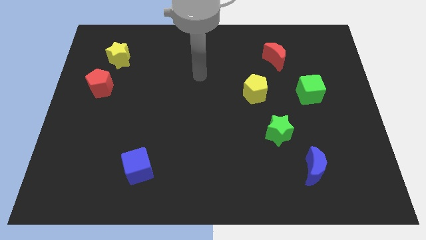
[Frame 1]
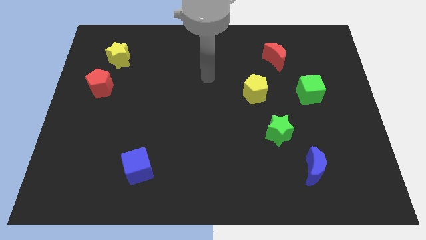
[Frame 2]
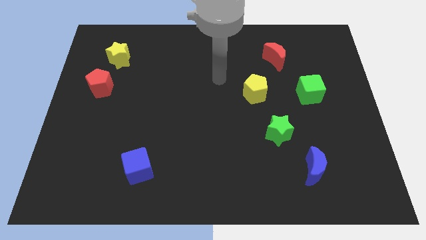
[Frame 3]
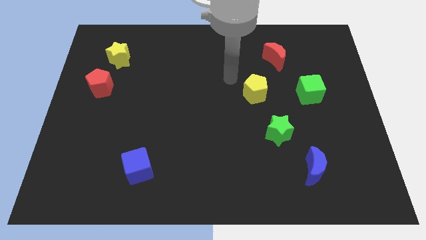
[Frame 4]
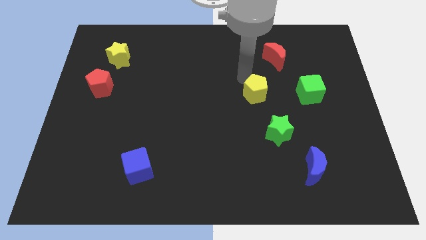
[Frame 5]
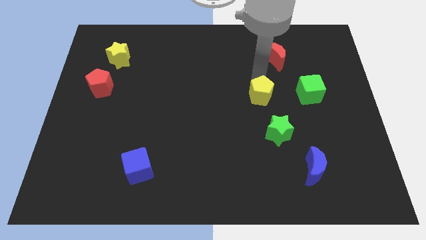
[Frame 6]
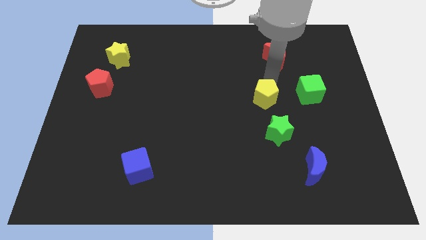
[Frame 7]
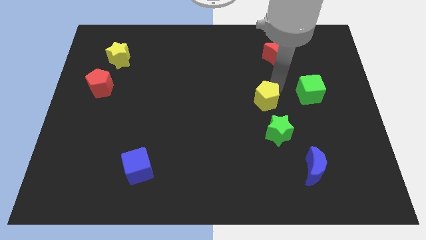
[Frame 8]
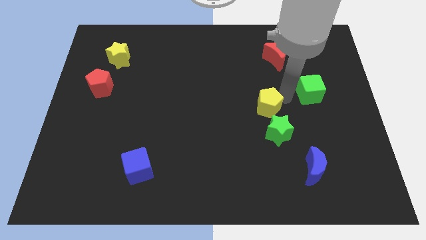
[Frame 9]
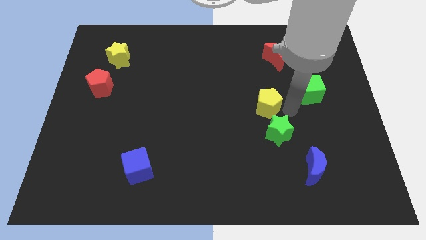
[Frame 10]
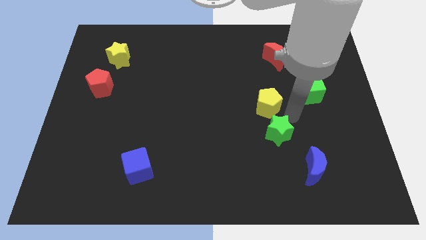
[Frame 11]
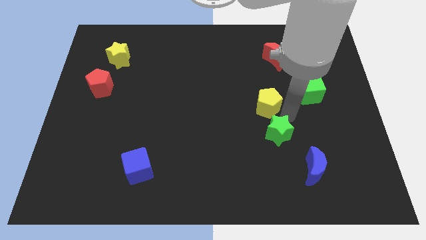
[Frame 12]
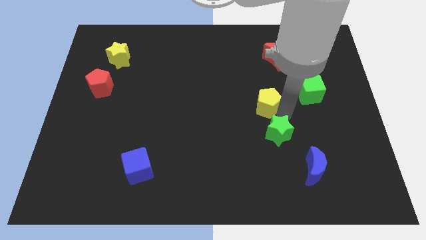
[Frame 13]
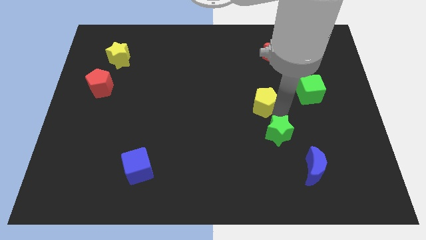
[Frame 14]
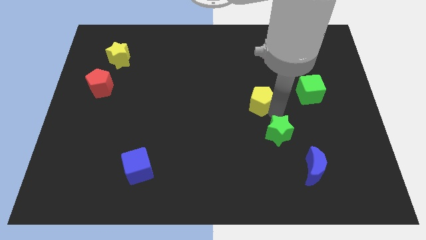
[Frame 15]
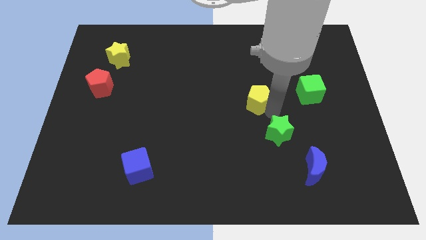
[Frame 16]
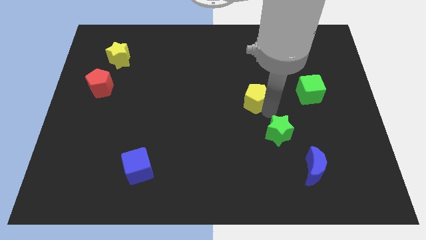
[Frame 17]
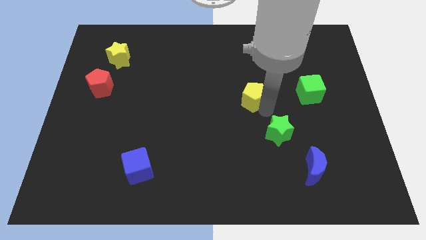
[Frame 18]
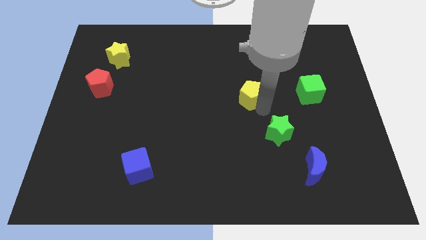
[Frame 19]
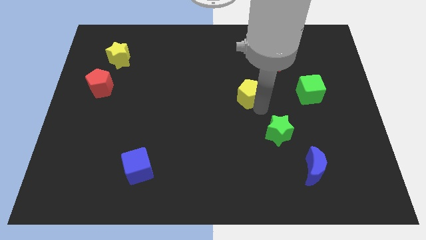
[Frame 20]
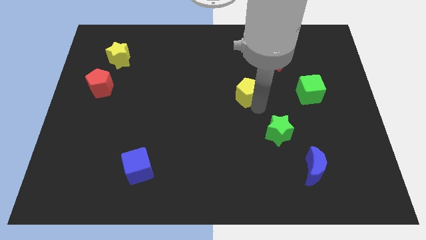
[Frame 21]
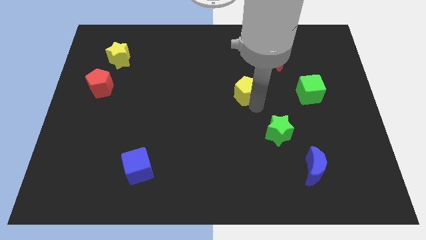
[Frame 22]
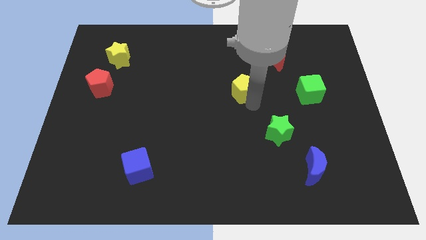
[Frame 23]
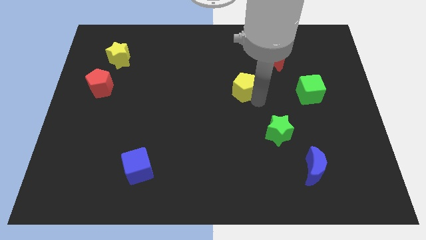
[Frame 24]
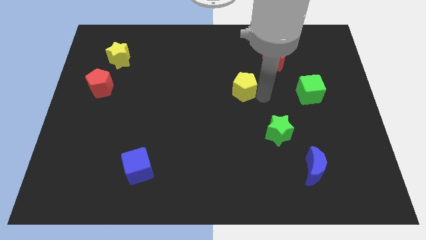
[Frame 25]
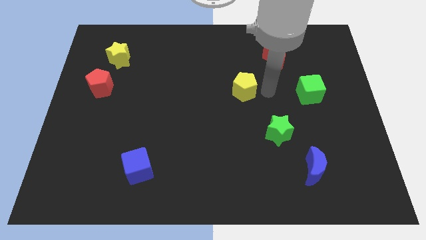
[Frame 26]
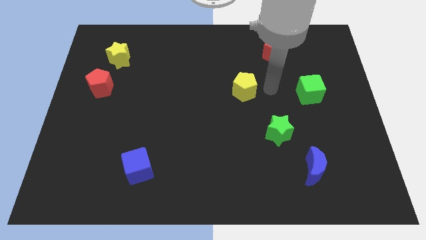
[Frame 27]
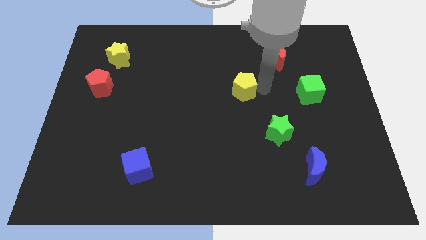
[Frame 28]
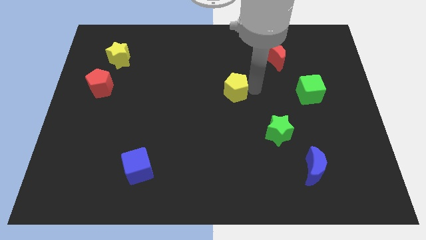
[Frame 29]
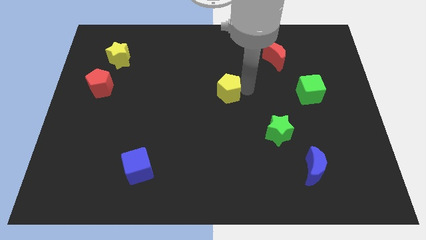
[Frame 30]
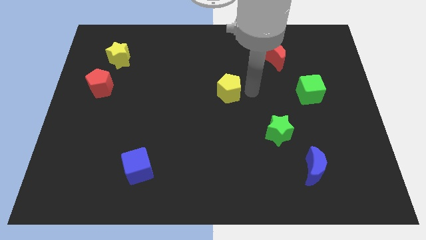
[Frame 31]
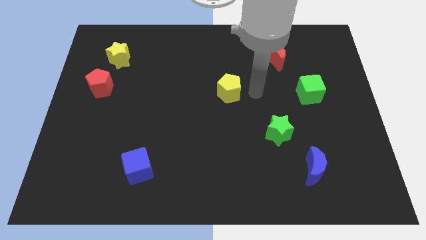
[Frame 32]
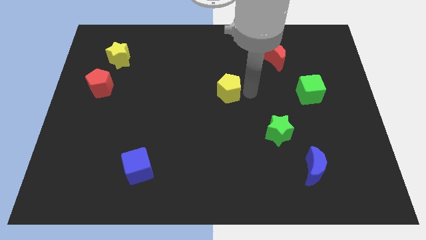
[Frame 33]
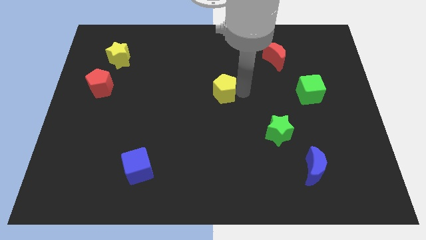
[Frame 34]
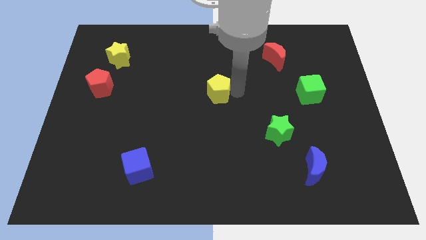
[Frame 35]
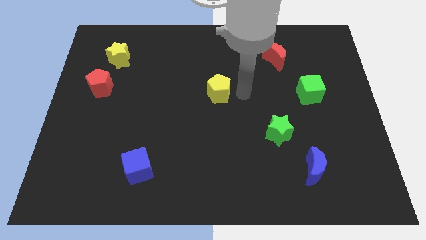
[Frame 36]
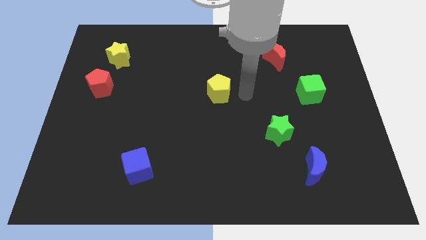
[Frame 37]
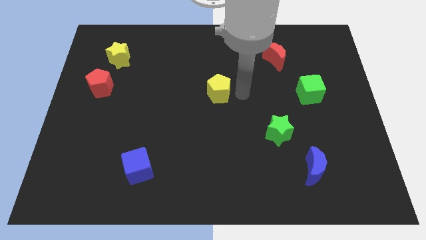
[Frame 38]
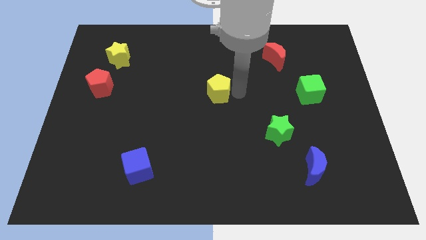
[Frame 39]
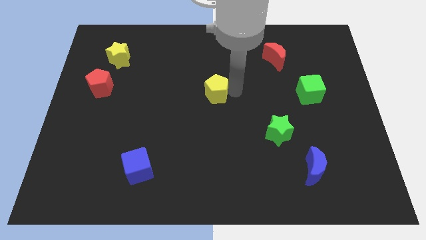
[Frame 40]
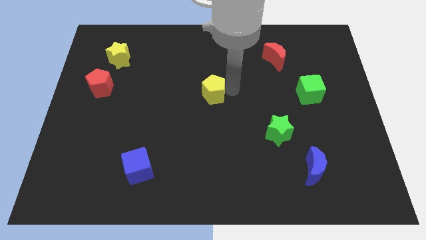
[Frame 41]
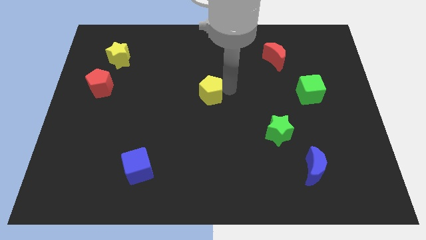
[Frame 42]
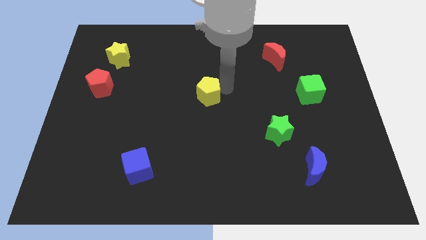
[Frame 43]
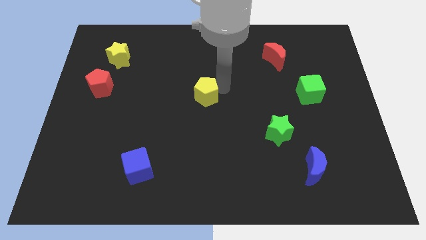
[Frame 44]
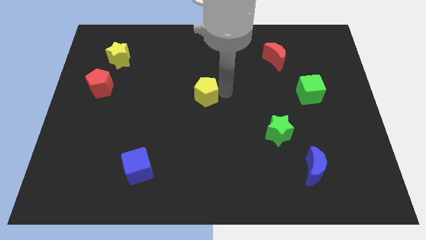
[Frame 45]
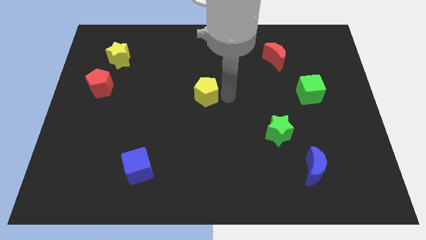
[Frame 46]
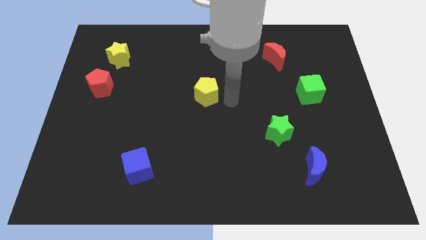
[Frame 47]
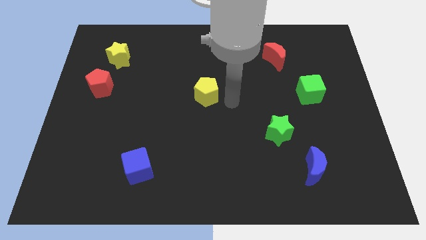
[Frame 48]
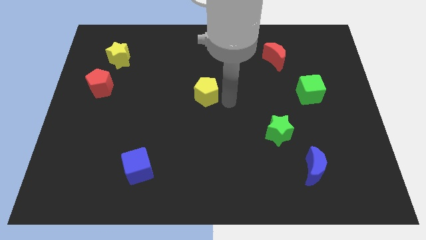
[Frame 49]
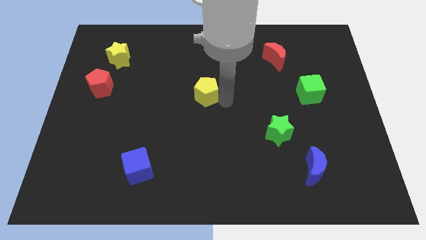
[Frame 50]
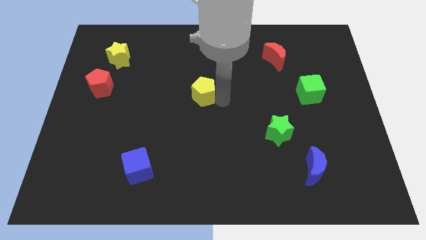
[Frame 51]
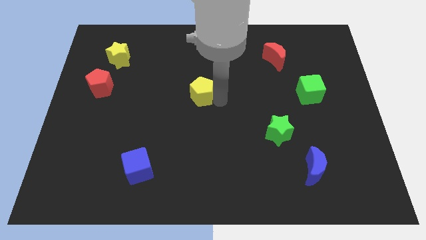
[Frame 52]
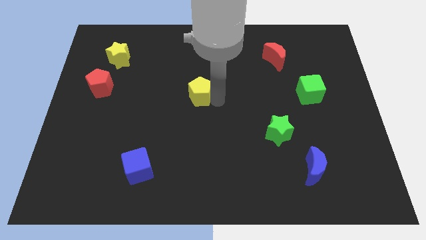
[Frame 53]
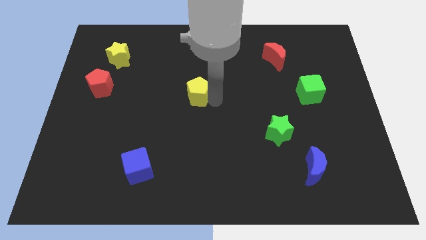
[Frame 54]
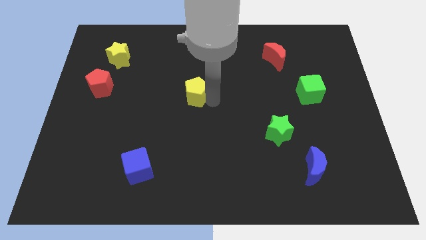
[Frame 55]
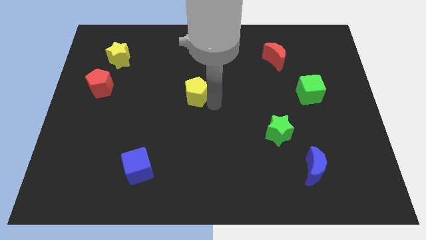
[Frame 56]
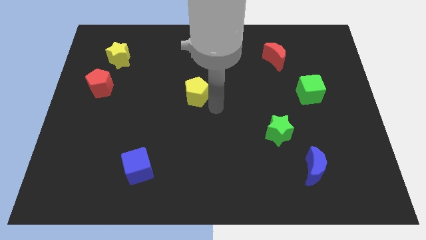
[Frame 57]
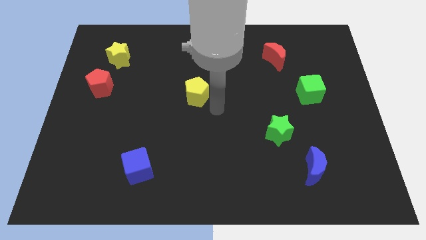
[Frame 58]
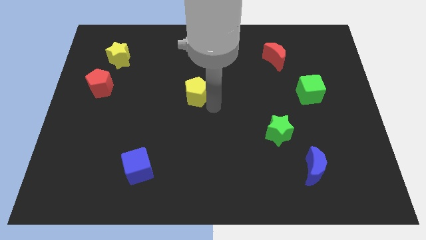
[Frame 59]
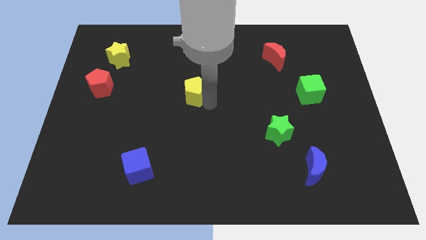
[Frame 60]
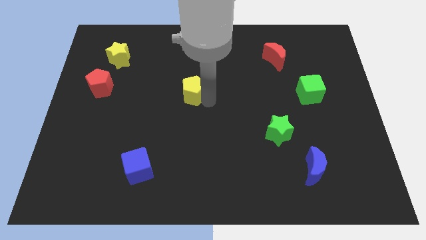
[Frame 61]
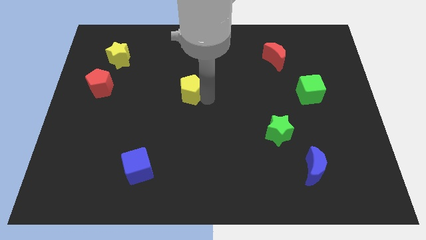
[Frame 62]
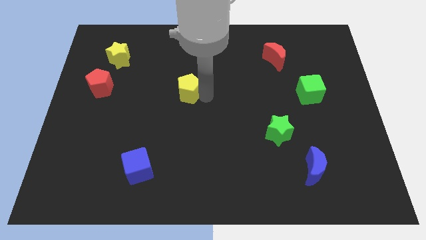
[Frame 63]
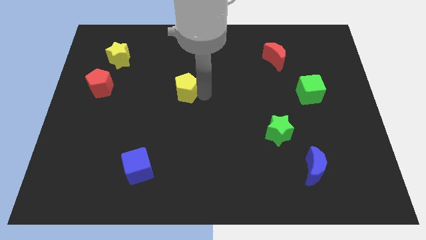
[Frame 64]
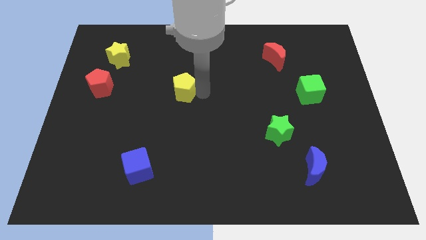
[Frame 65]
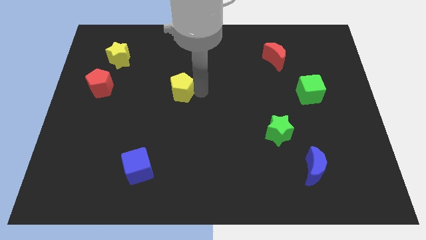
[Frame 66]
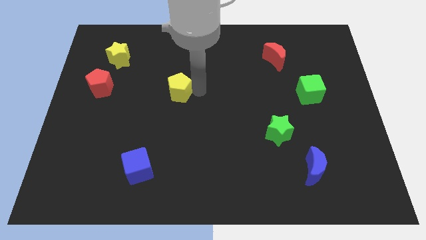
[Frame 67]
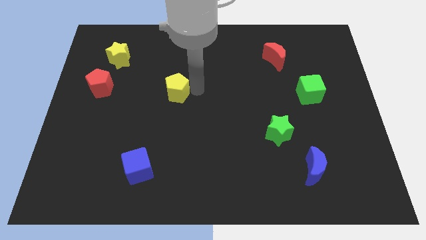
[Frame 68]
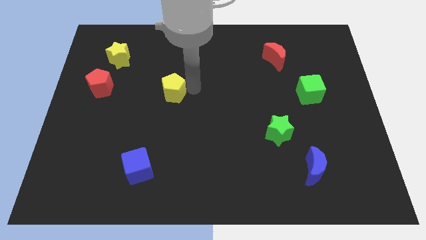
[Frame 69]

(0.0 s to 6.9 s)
move the yellow pentagon to the left

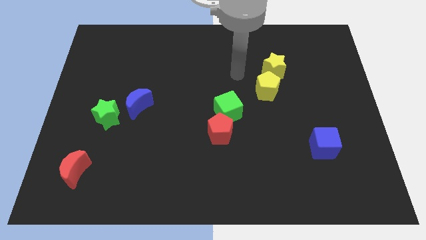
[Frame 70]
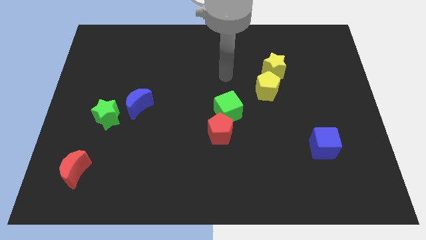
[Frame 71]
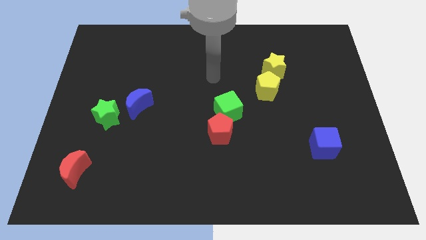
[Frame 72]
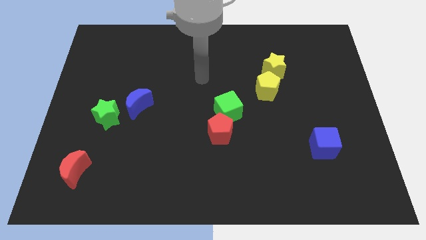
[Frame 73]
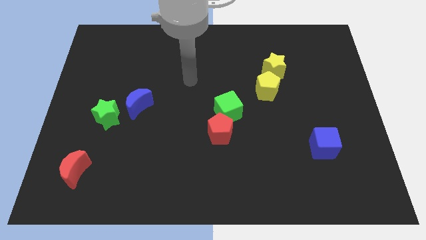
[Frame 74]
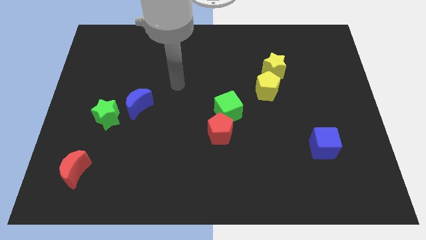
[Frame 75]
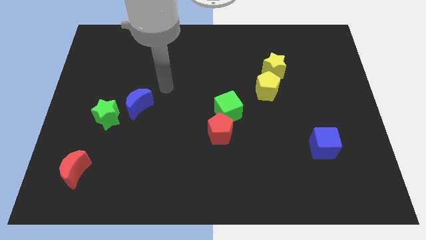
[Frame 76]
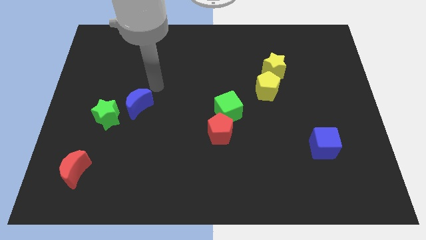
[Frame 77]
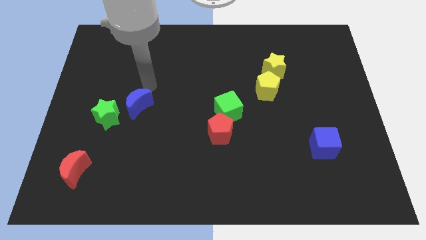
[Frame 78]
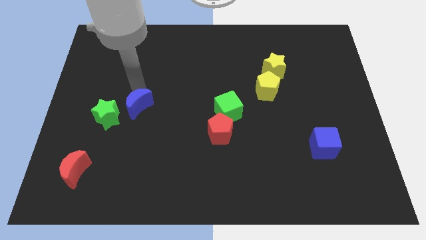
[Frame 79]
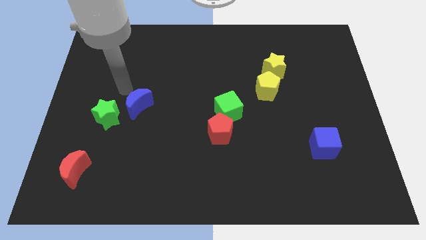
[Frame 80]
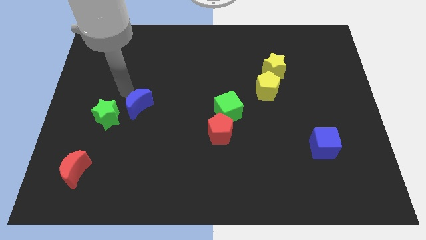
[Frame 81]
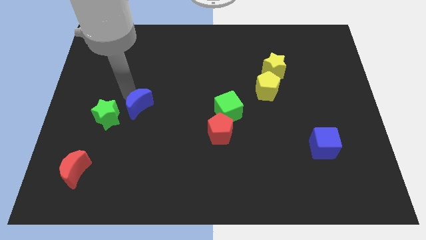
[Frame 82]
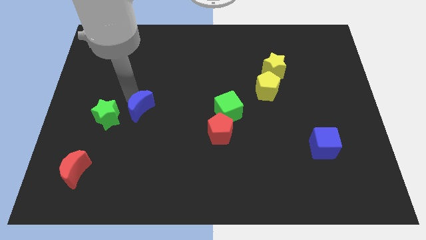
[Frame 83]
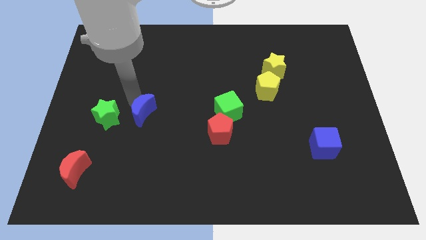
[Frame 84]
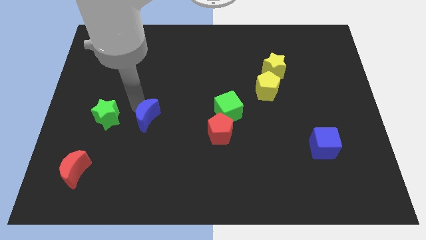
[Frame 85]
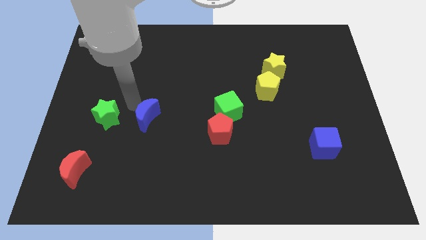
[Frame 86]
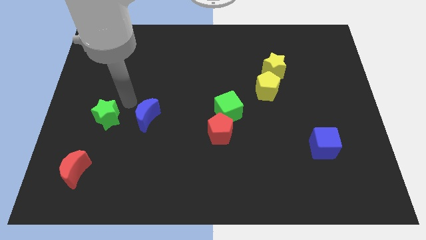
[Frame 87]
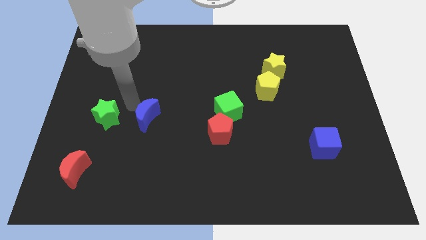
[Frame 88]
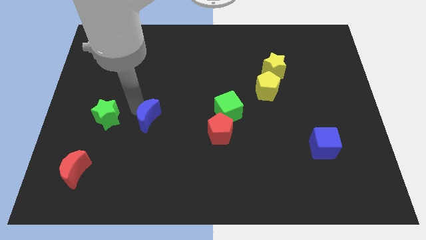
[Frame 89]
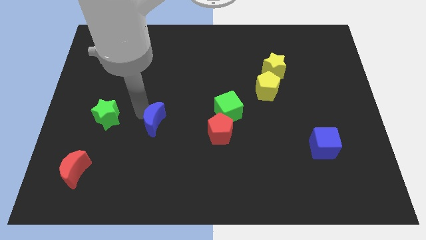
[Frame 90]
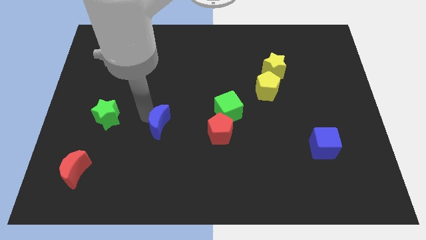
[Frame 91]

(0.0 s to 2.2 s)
move the blue moon somewhat downwards and to the right diagonally
